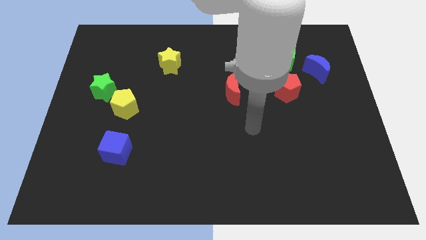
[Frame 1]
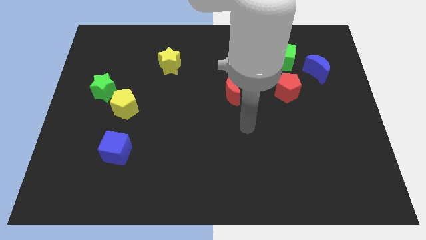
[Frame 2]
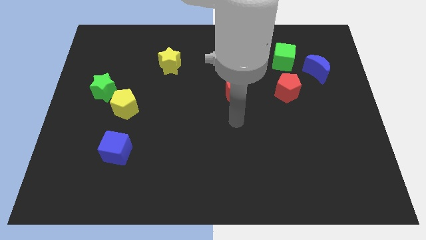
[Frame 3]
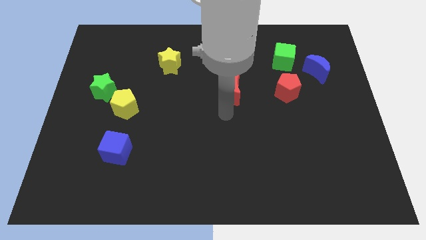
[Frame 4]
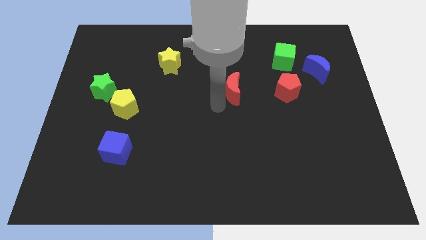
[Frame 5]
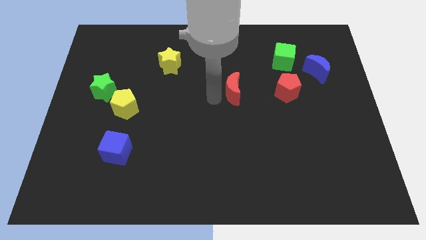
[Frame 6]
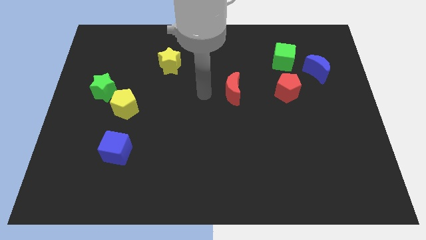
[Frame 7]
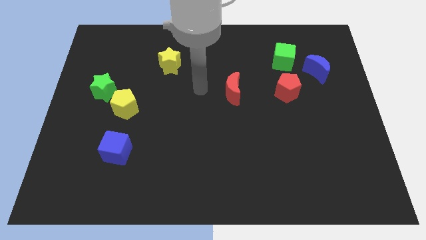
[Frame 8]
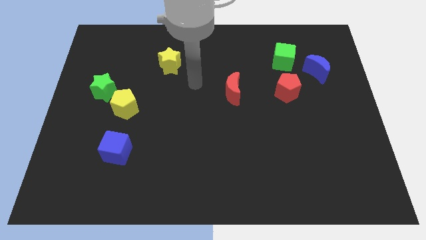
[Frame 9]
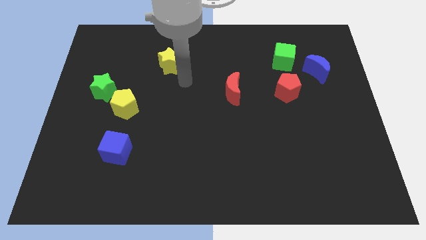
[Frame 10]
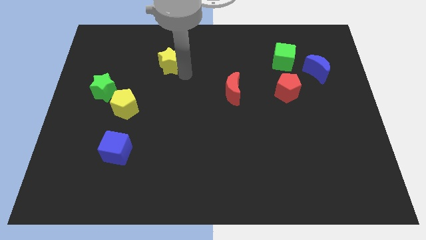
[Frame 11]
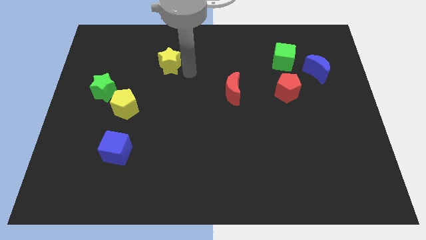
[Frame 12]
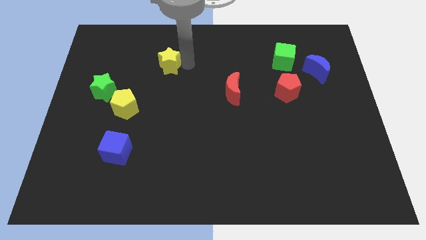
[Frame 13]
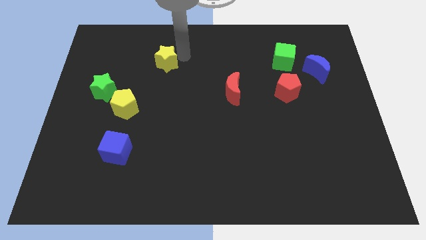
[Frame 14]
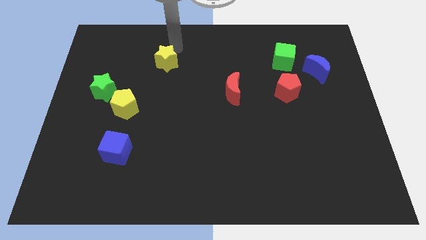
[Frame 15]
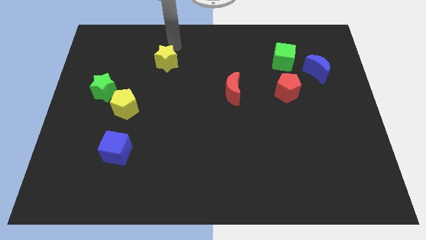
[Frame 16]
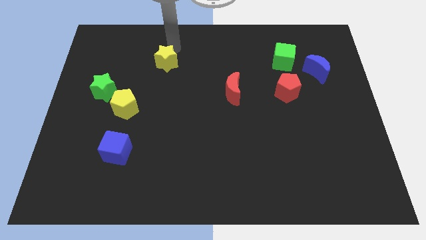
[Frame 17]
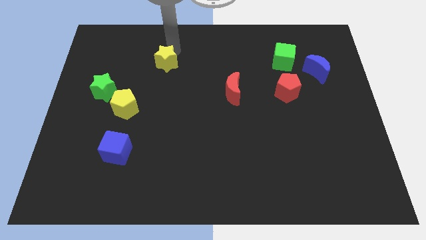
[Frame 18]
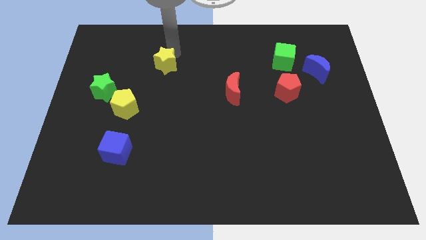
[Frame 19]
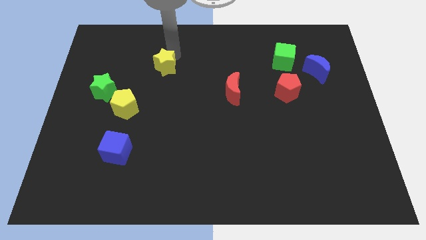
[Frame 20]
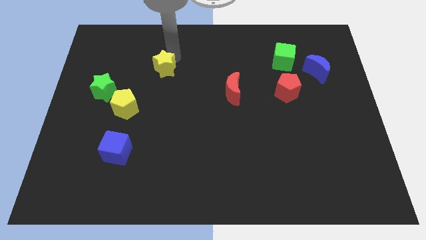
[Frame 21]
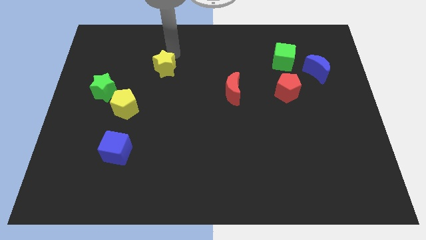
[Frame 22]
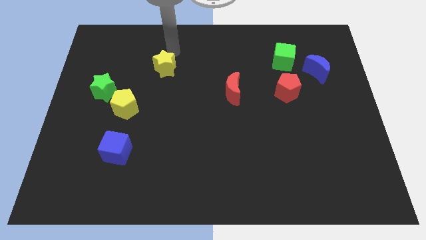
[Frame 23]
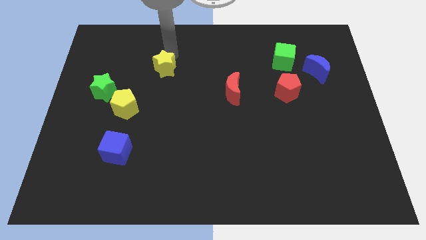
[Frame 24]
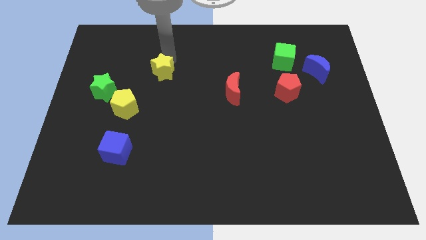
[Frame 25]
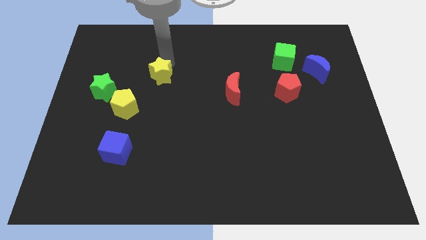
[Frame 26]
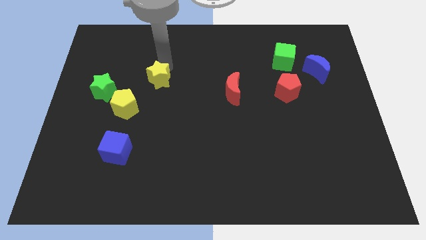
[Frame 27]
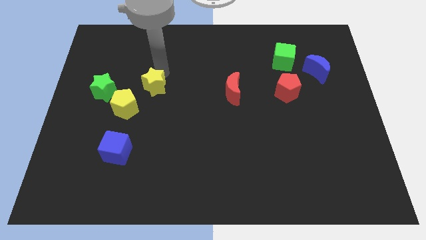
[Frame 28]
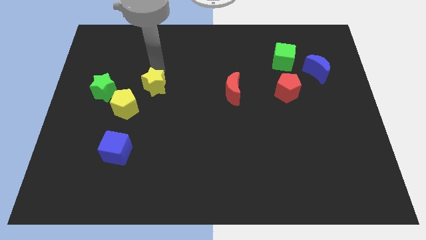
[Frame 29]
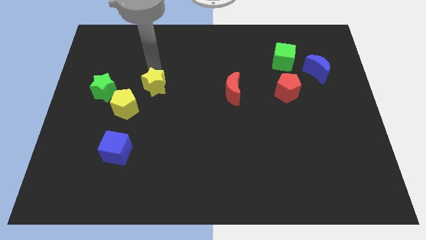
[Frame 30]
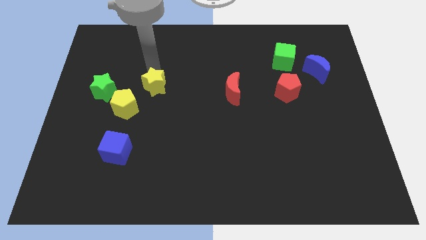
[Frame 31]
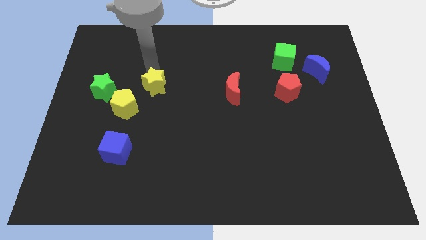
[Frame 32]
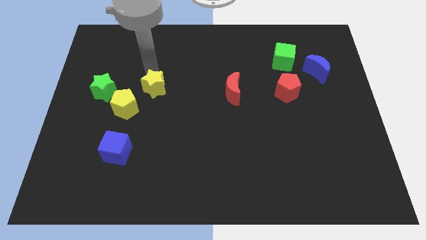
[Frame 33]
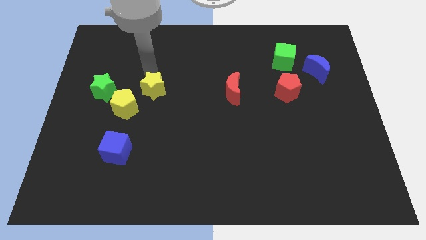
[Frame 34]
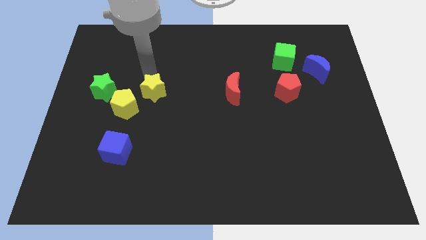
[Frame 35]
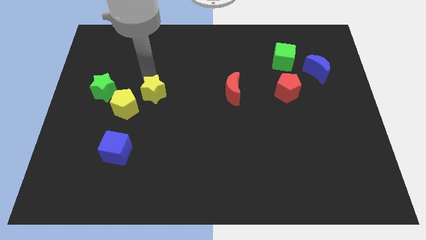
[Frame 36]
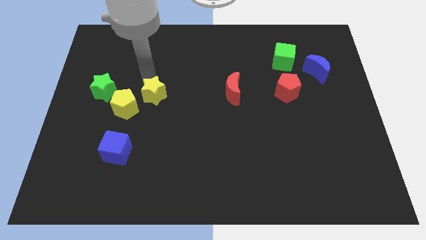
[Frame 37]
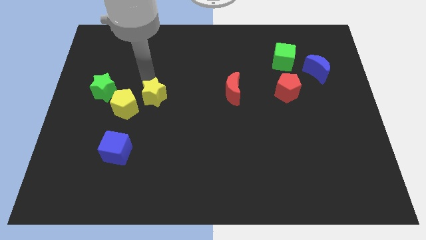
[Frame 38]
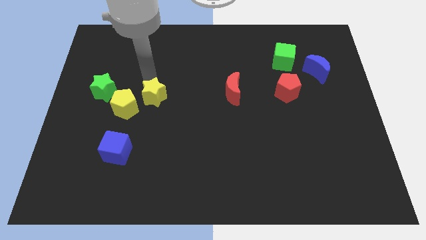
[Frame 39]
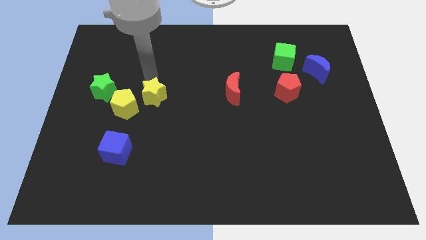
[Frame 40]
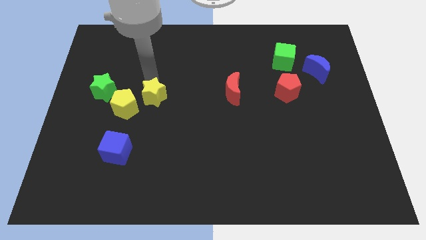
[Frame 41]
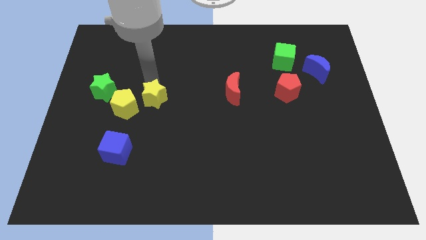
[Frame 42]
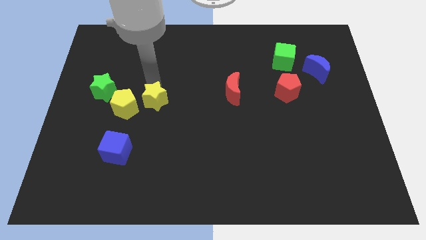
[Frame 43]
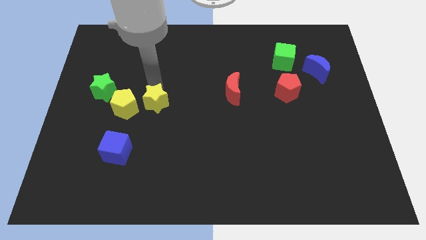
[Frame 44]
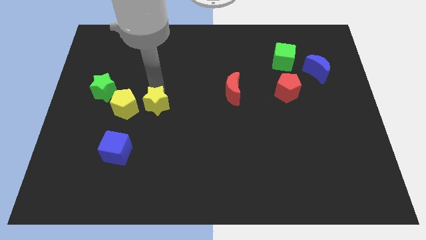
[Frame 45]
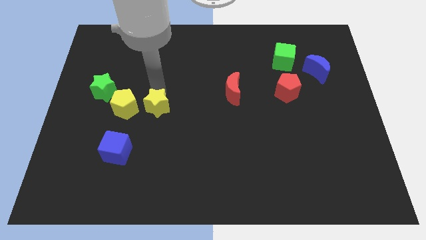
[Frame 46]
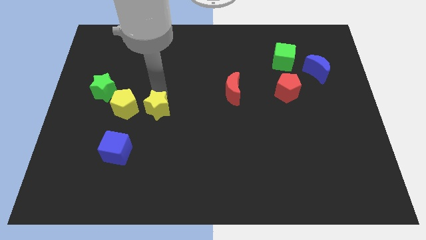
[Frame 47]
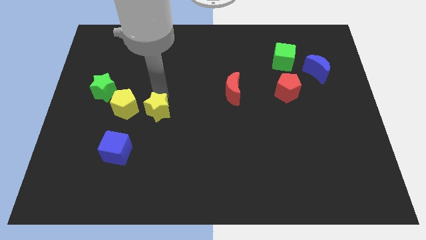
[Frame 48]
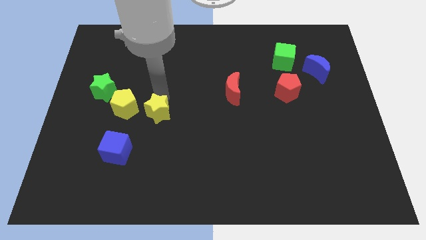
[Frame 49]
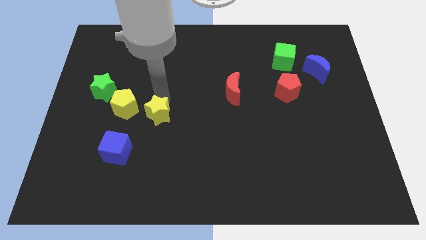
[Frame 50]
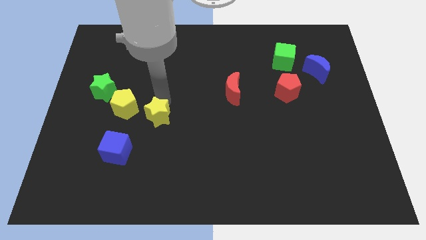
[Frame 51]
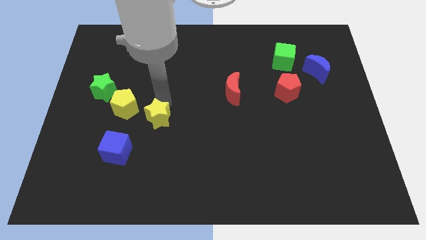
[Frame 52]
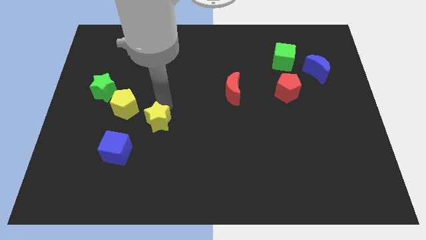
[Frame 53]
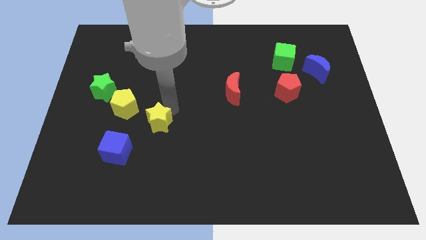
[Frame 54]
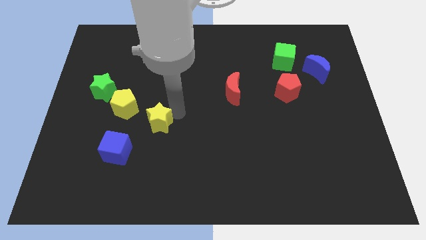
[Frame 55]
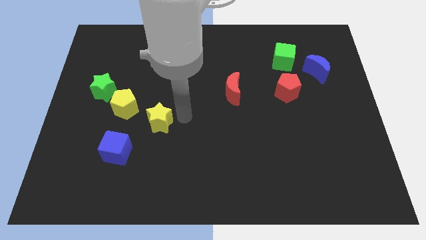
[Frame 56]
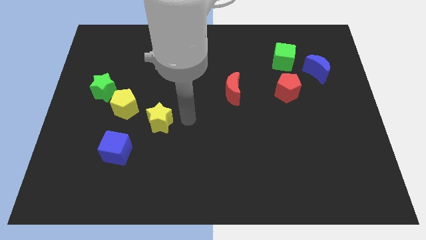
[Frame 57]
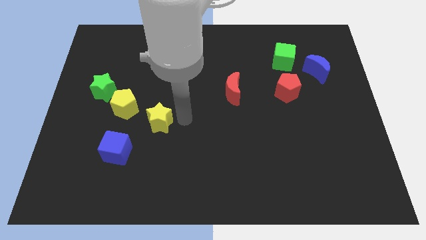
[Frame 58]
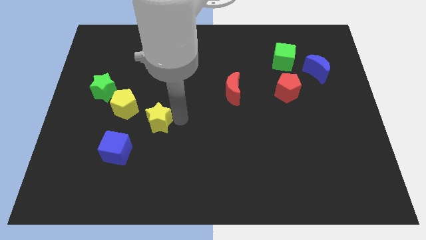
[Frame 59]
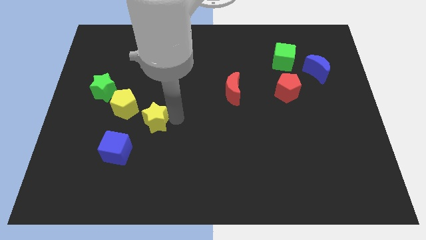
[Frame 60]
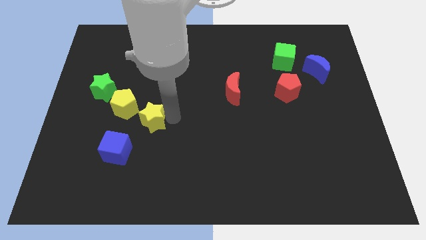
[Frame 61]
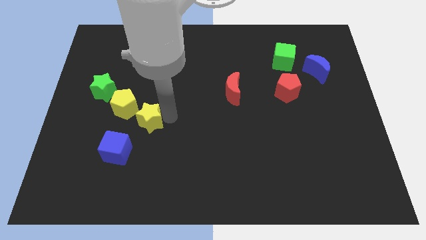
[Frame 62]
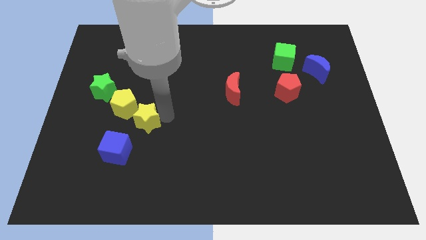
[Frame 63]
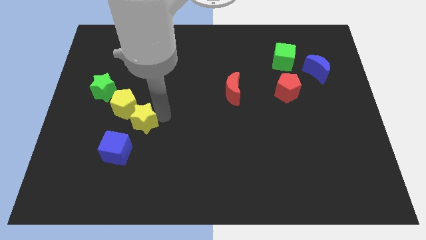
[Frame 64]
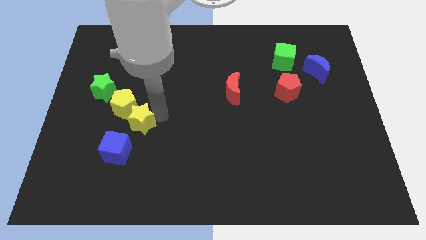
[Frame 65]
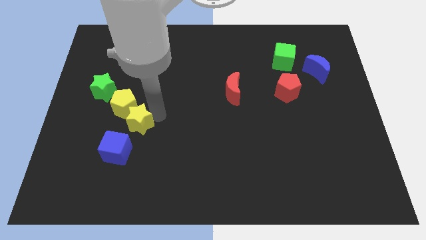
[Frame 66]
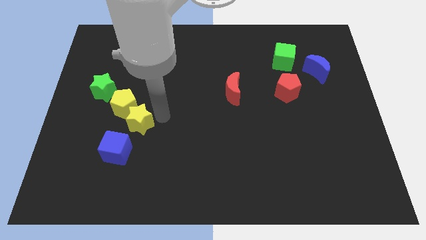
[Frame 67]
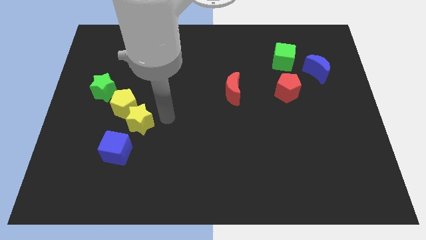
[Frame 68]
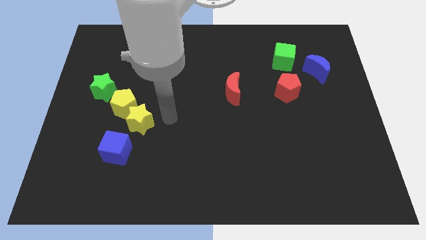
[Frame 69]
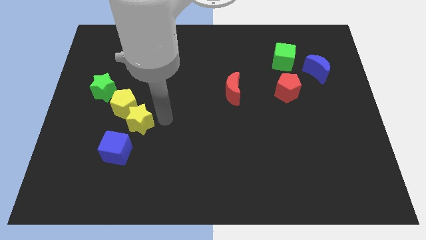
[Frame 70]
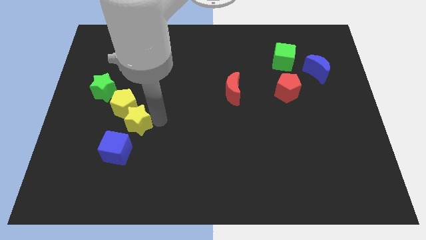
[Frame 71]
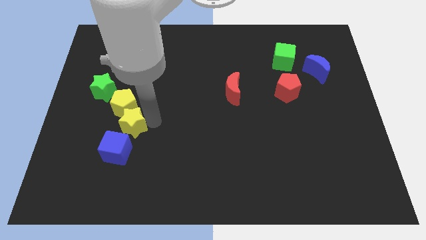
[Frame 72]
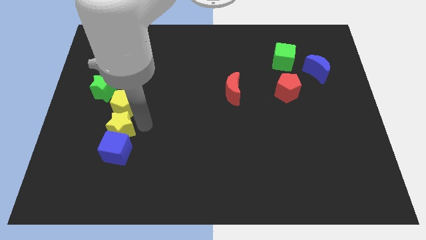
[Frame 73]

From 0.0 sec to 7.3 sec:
push the yellow star to the bottom left of the yellow pentagon

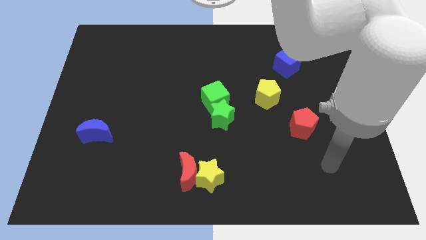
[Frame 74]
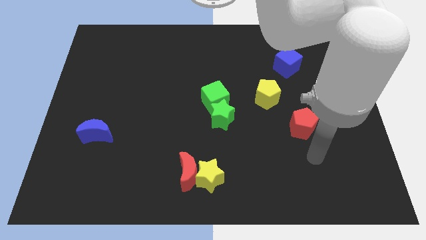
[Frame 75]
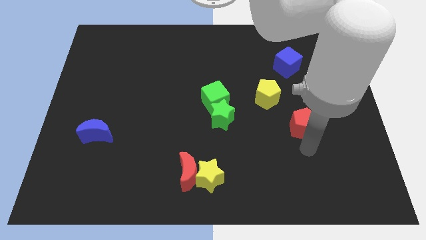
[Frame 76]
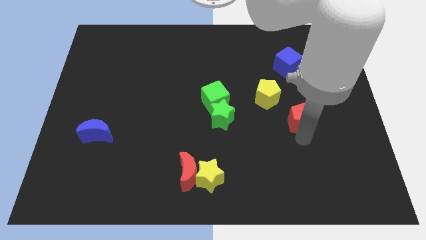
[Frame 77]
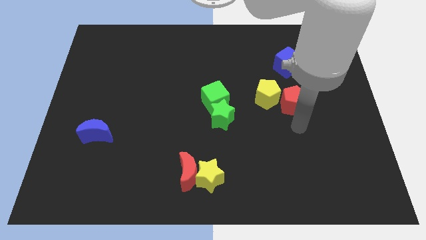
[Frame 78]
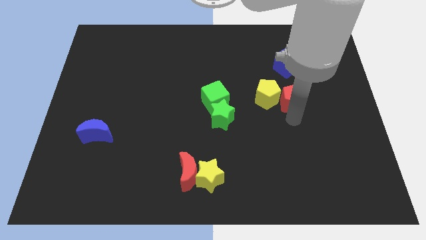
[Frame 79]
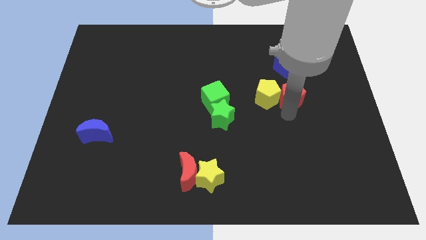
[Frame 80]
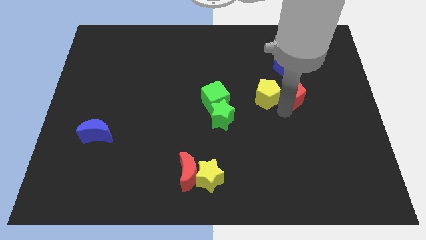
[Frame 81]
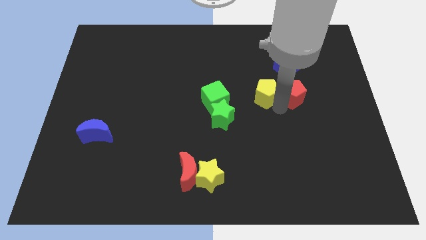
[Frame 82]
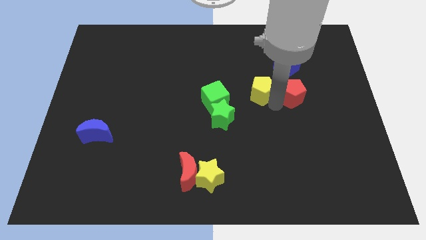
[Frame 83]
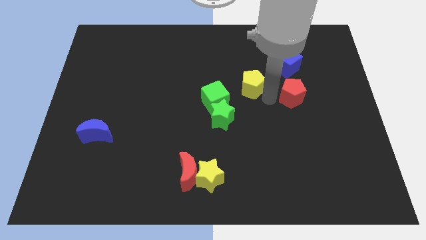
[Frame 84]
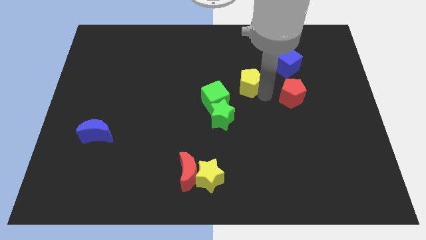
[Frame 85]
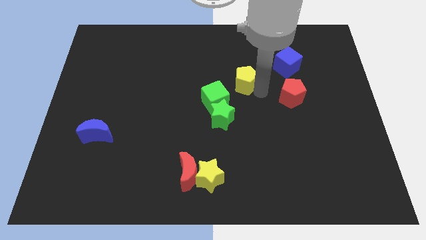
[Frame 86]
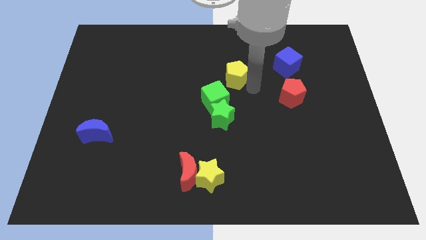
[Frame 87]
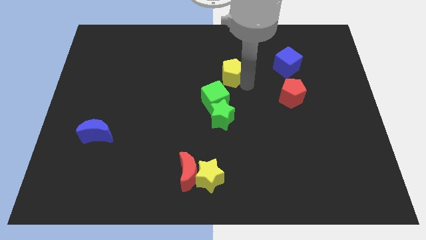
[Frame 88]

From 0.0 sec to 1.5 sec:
put the yellow pentagon above the green cube
